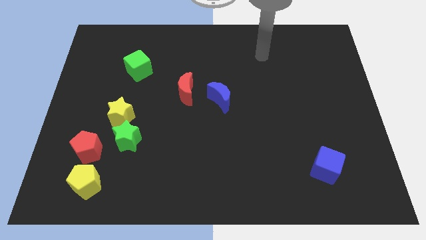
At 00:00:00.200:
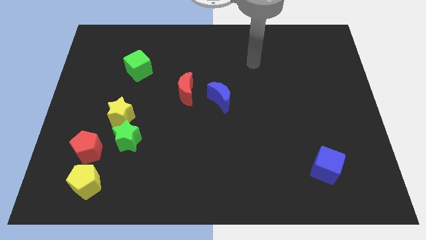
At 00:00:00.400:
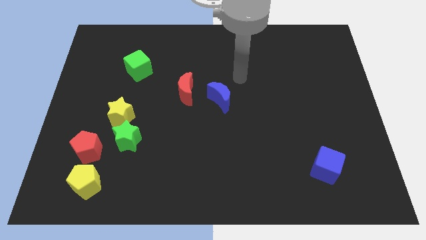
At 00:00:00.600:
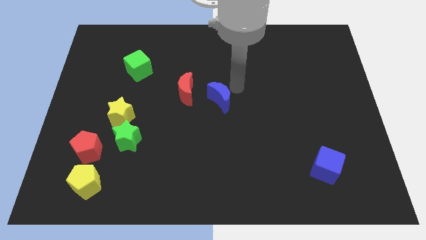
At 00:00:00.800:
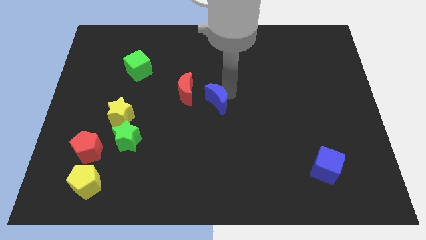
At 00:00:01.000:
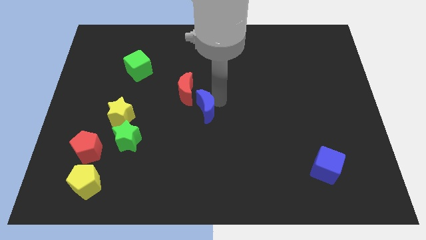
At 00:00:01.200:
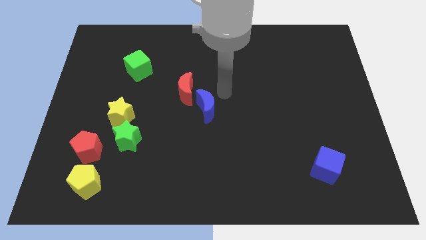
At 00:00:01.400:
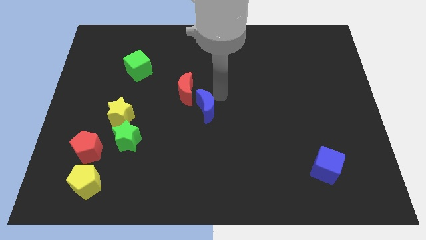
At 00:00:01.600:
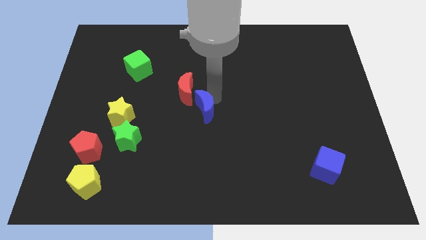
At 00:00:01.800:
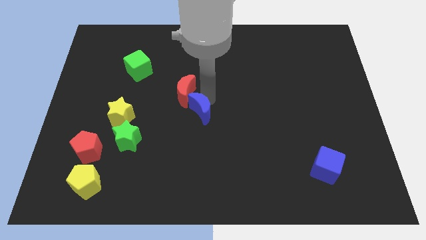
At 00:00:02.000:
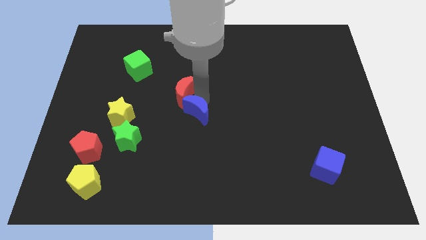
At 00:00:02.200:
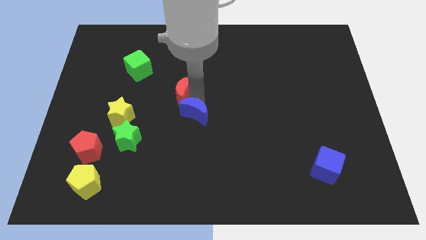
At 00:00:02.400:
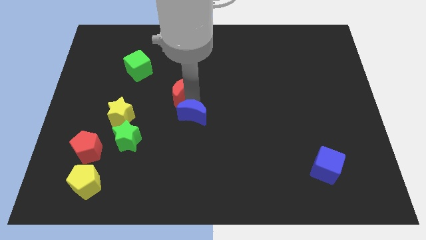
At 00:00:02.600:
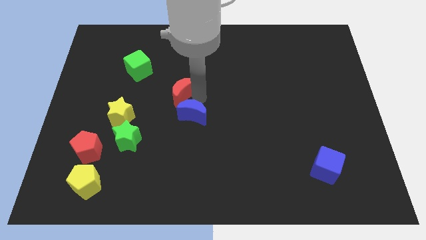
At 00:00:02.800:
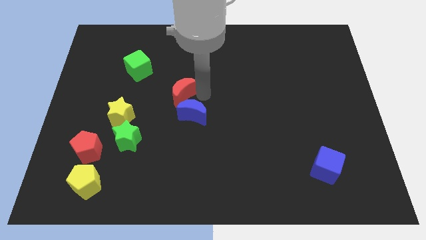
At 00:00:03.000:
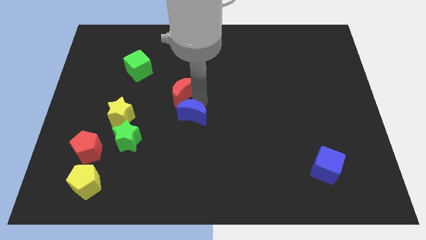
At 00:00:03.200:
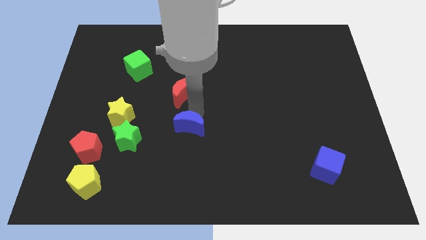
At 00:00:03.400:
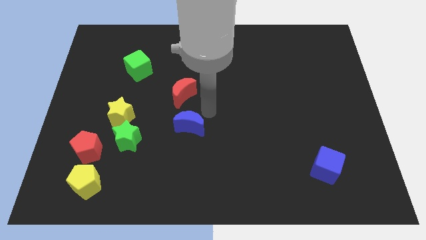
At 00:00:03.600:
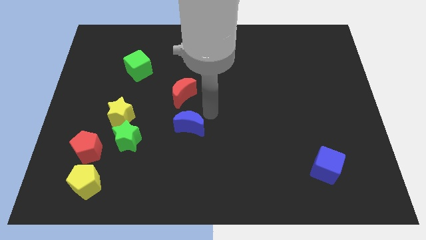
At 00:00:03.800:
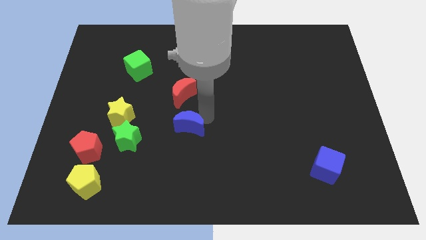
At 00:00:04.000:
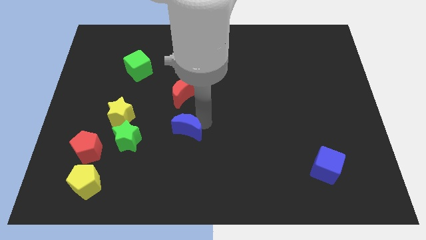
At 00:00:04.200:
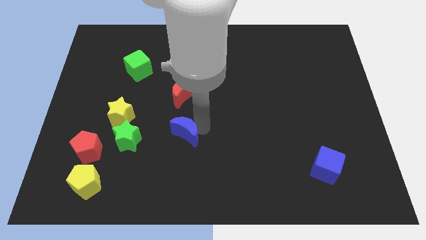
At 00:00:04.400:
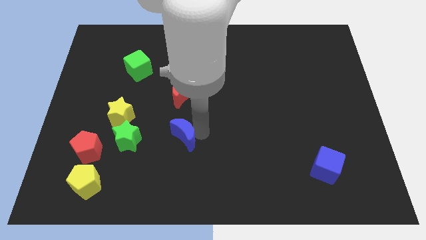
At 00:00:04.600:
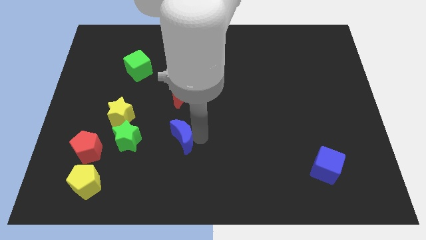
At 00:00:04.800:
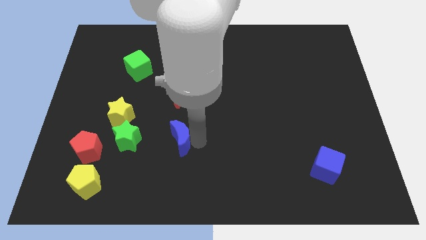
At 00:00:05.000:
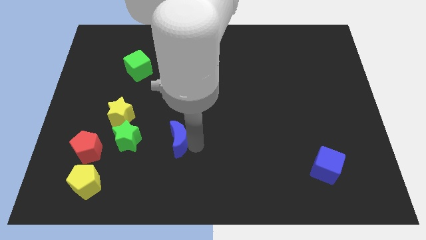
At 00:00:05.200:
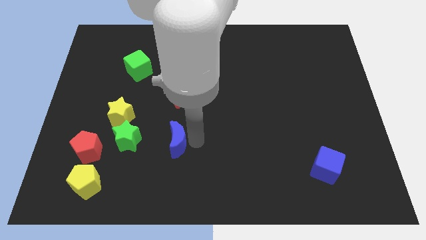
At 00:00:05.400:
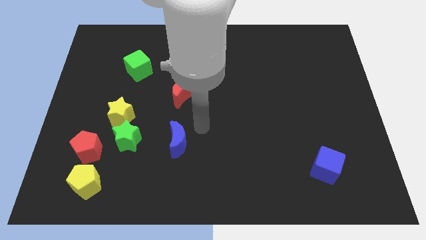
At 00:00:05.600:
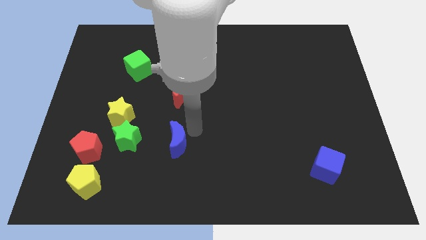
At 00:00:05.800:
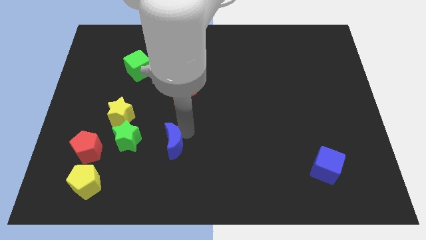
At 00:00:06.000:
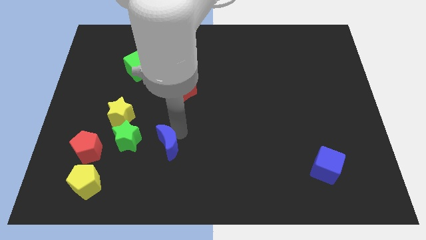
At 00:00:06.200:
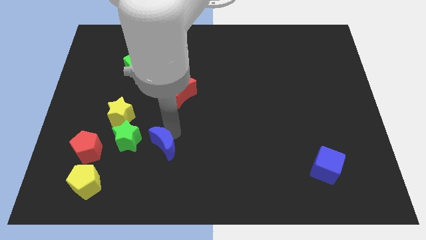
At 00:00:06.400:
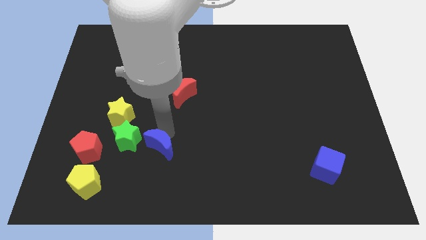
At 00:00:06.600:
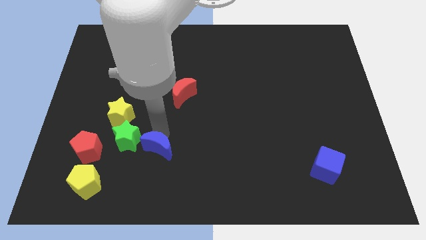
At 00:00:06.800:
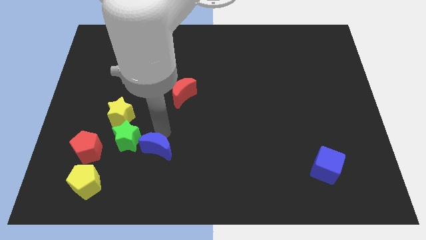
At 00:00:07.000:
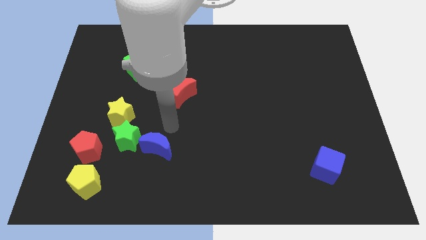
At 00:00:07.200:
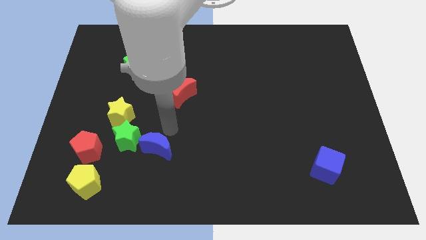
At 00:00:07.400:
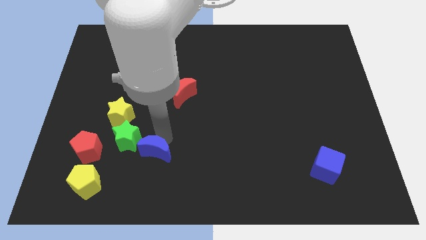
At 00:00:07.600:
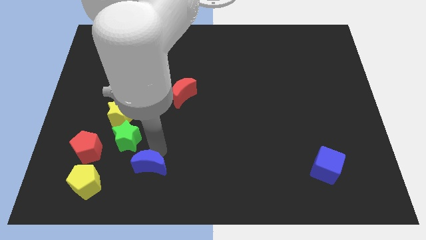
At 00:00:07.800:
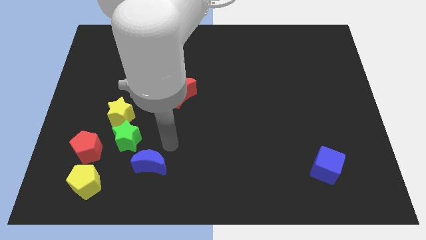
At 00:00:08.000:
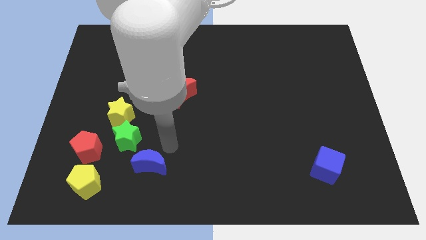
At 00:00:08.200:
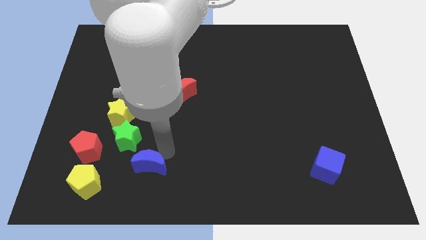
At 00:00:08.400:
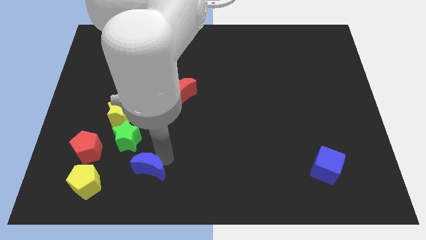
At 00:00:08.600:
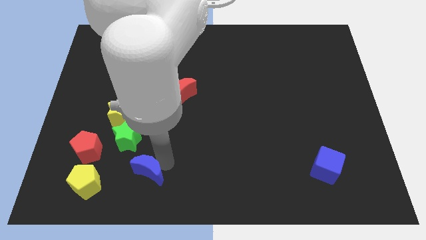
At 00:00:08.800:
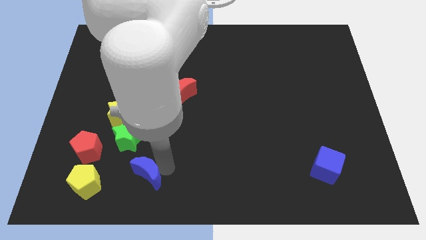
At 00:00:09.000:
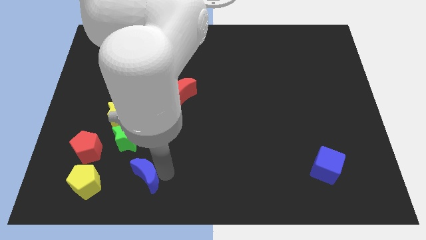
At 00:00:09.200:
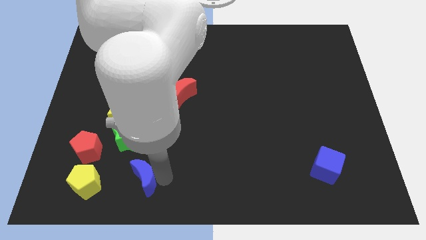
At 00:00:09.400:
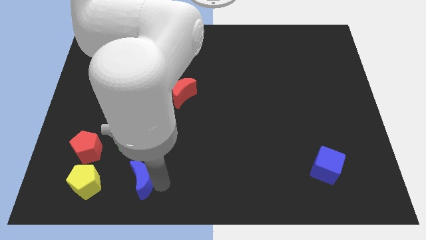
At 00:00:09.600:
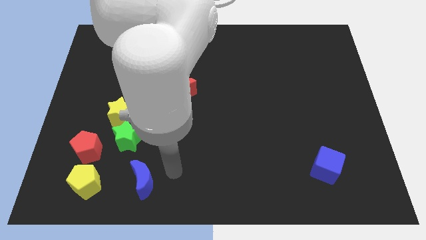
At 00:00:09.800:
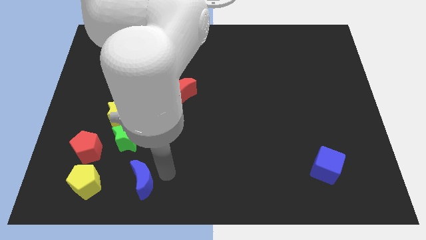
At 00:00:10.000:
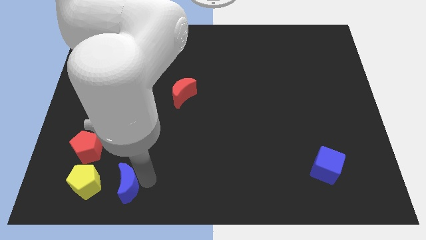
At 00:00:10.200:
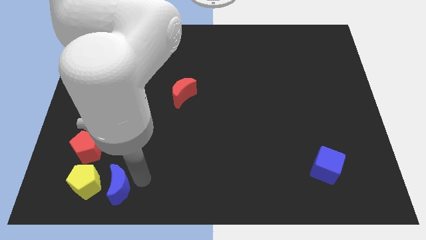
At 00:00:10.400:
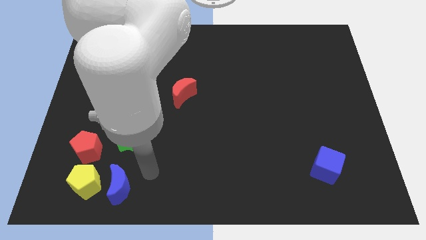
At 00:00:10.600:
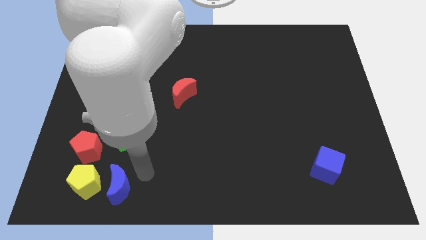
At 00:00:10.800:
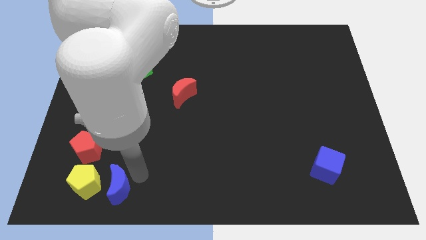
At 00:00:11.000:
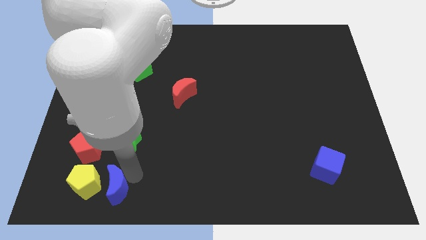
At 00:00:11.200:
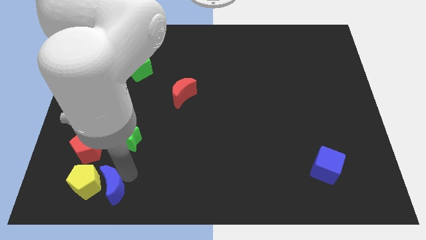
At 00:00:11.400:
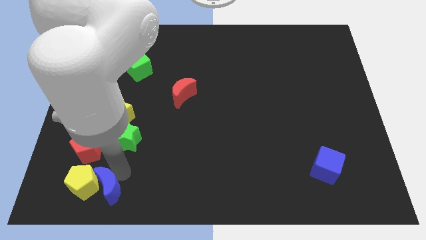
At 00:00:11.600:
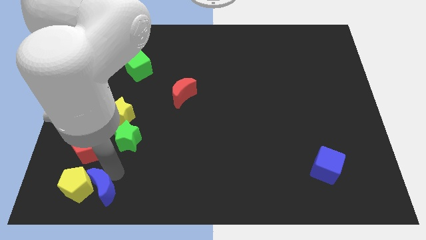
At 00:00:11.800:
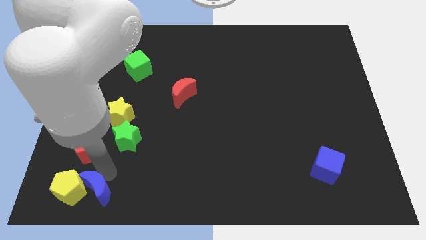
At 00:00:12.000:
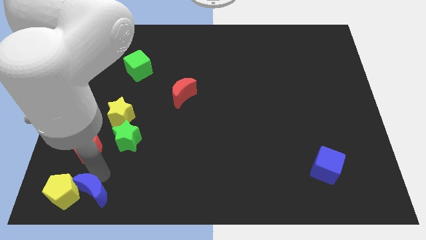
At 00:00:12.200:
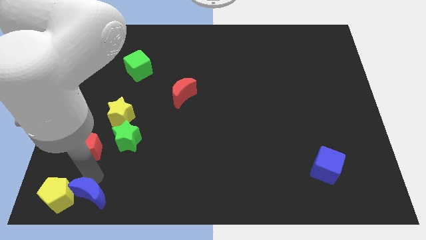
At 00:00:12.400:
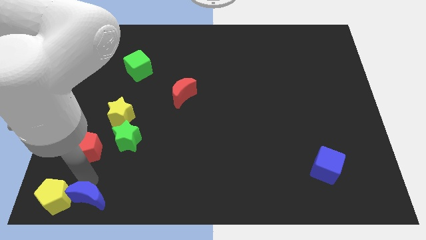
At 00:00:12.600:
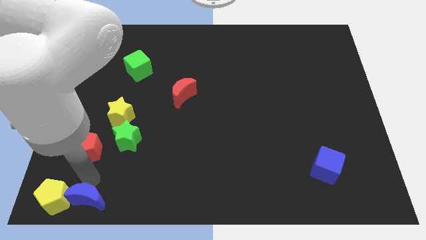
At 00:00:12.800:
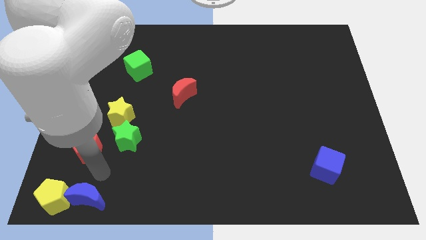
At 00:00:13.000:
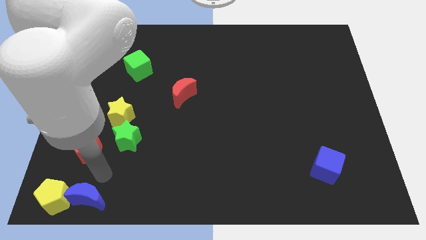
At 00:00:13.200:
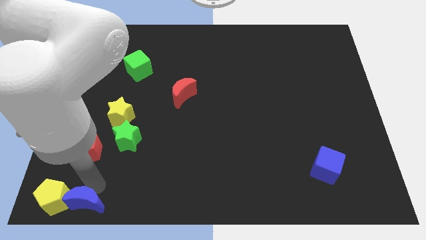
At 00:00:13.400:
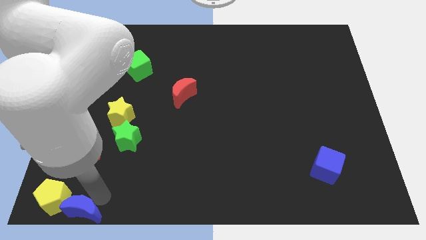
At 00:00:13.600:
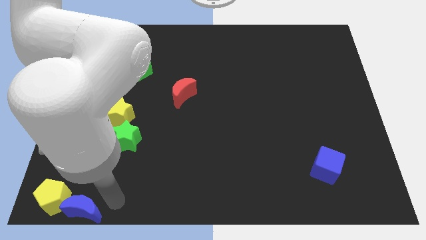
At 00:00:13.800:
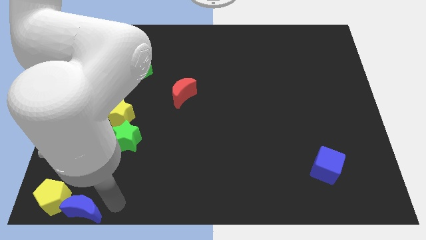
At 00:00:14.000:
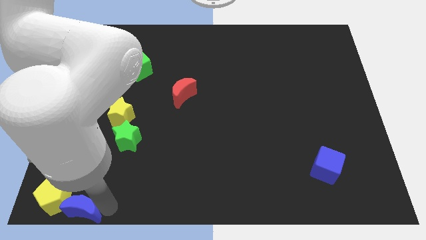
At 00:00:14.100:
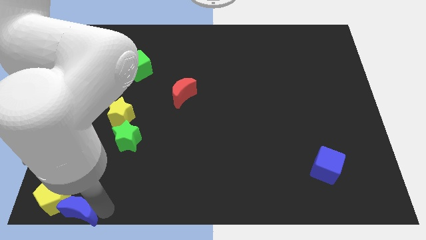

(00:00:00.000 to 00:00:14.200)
push the blue moon to the lower left corner
